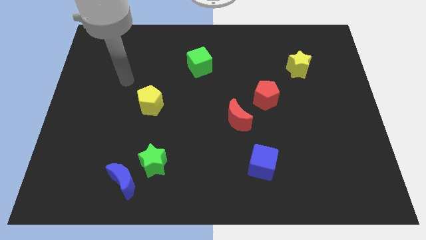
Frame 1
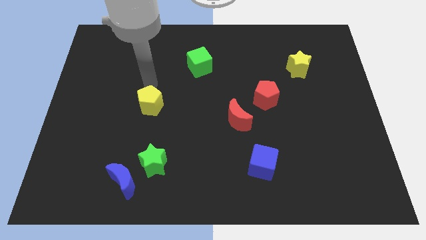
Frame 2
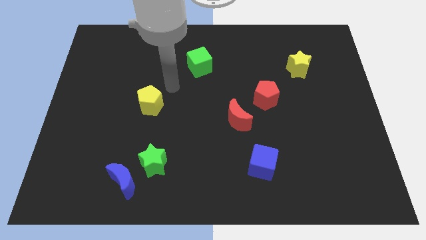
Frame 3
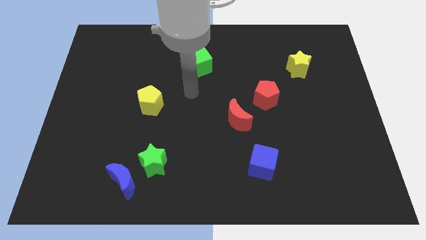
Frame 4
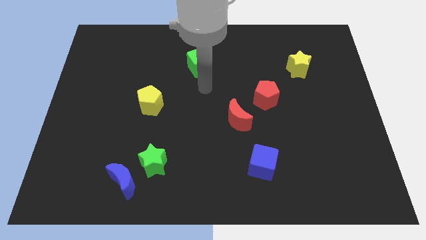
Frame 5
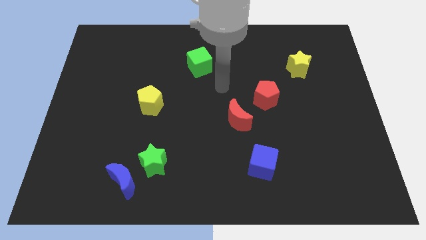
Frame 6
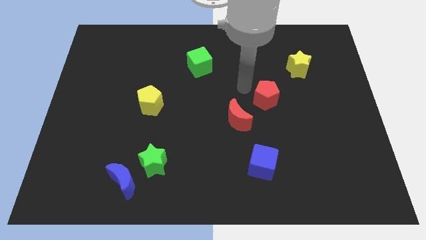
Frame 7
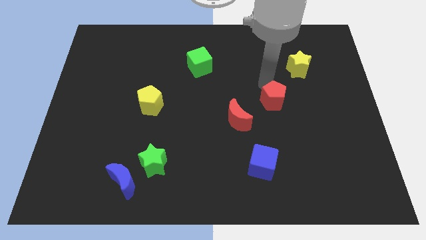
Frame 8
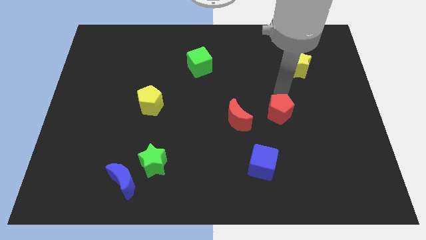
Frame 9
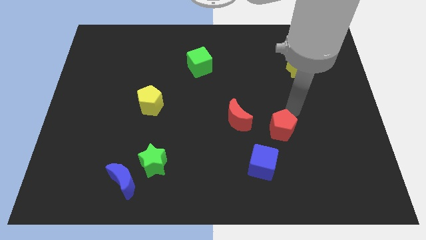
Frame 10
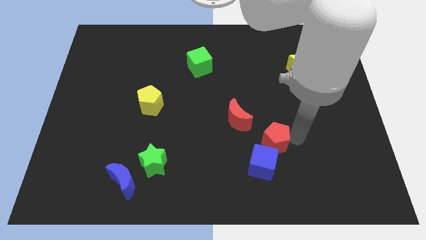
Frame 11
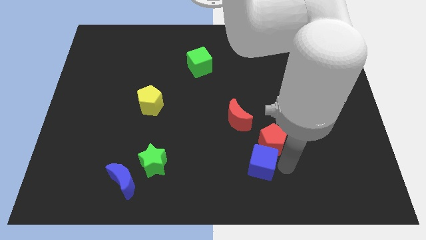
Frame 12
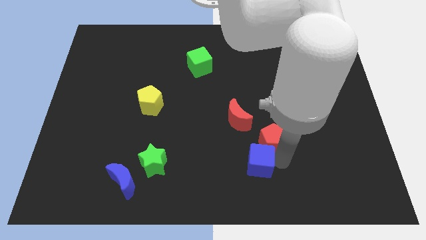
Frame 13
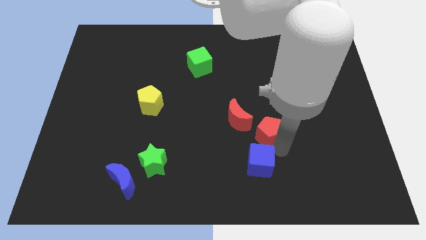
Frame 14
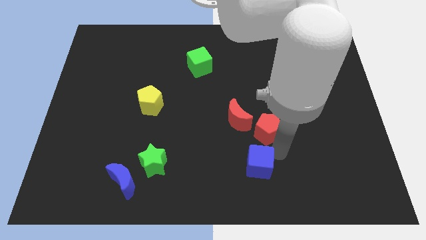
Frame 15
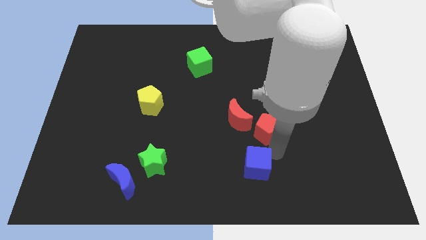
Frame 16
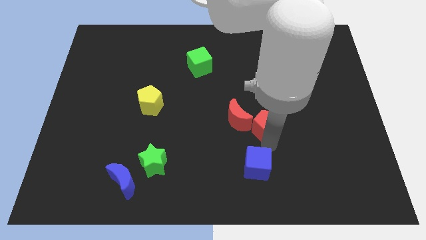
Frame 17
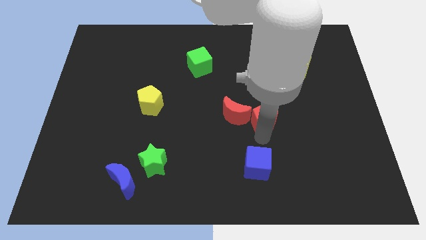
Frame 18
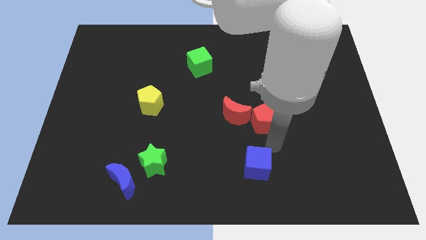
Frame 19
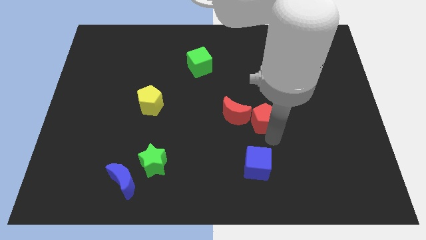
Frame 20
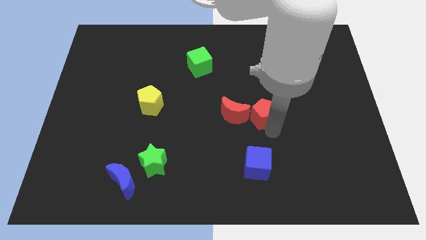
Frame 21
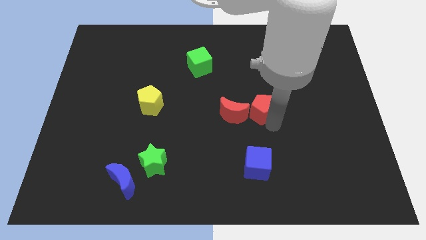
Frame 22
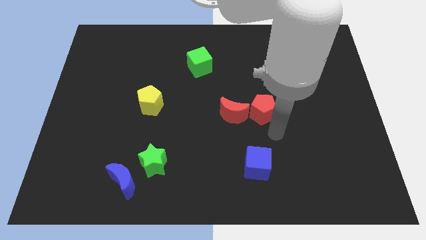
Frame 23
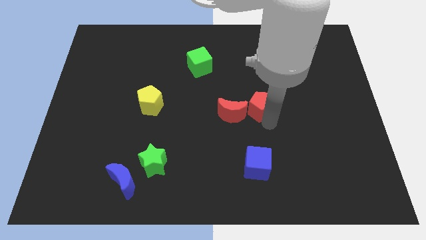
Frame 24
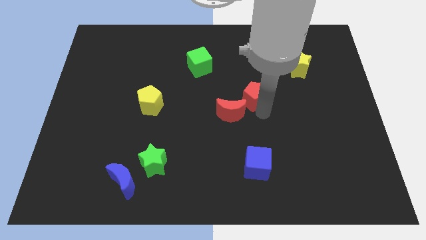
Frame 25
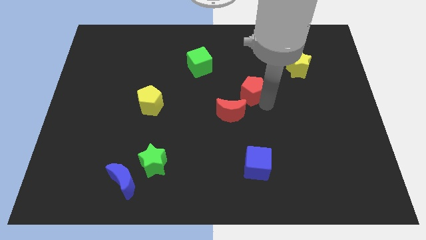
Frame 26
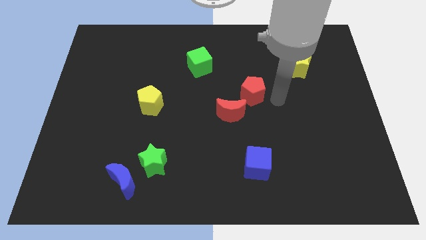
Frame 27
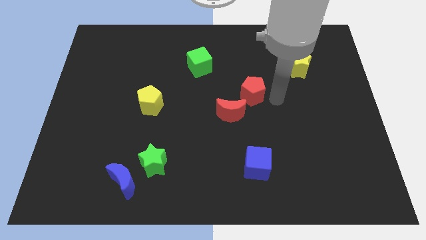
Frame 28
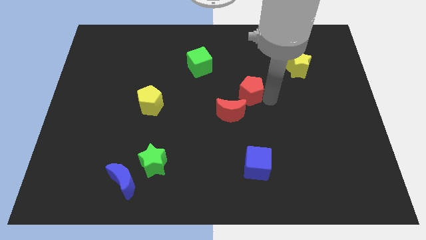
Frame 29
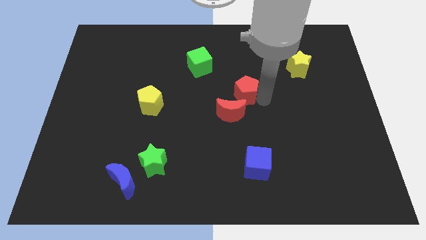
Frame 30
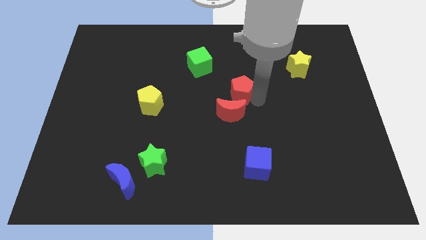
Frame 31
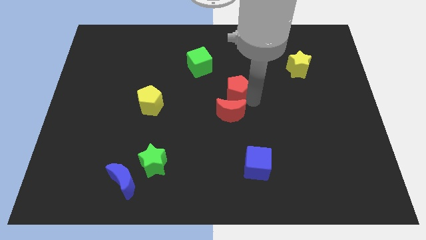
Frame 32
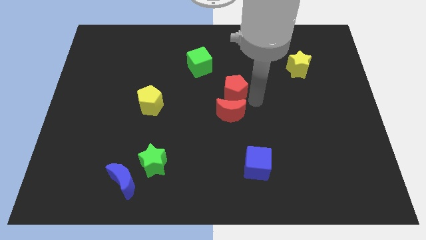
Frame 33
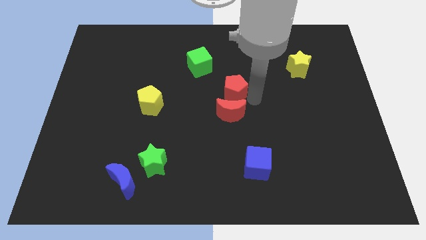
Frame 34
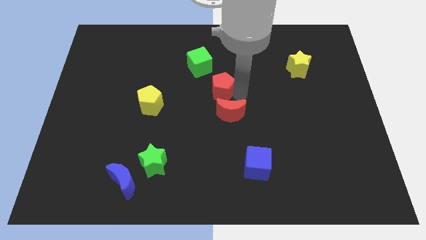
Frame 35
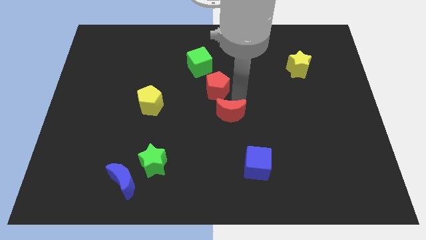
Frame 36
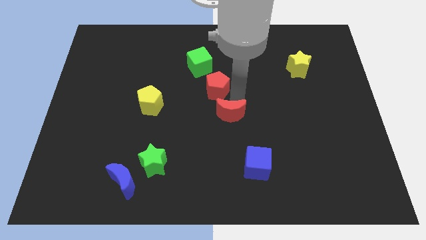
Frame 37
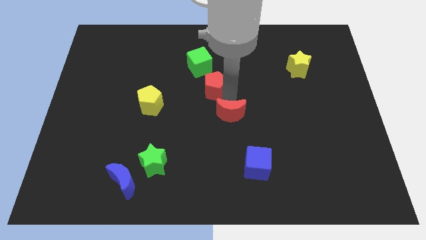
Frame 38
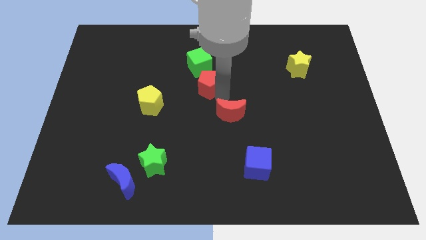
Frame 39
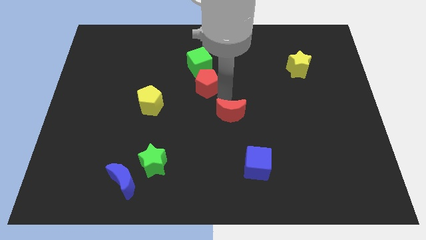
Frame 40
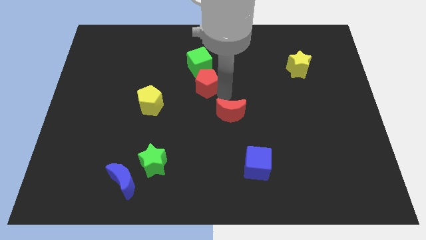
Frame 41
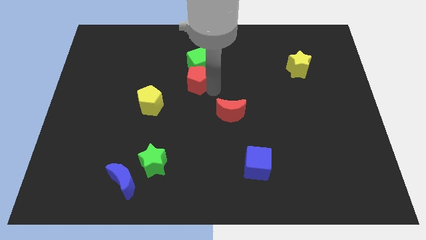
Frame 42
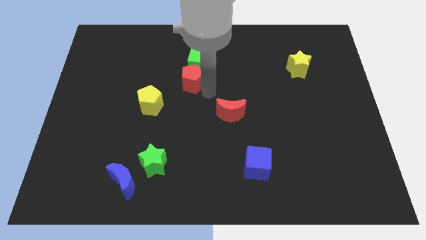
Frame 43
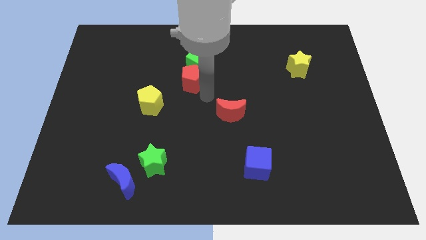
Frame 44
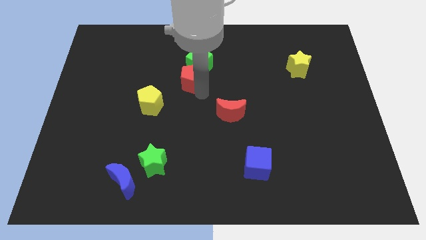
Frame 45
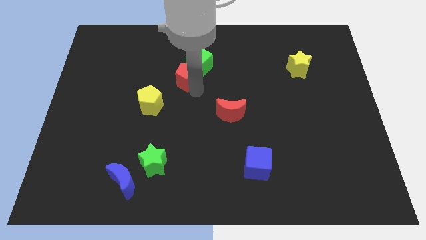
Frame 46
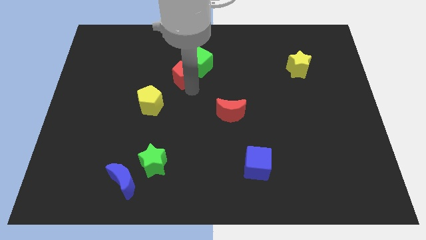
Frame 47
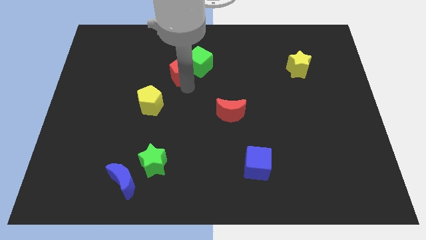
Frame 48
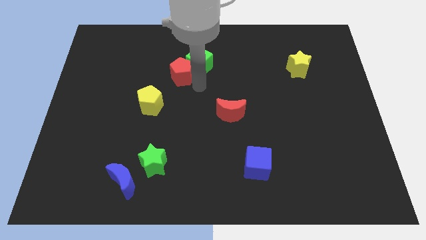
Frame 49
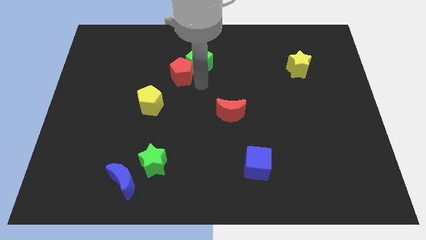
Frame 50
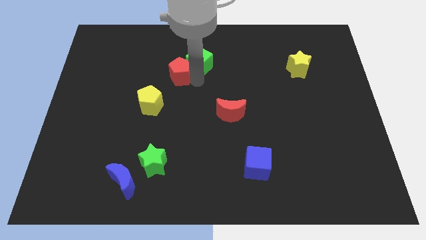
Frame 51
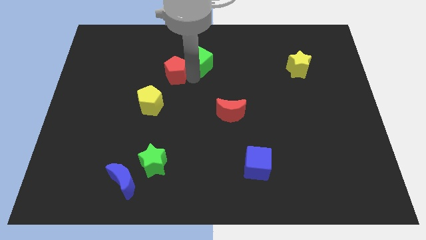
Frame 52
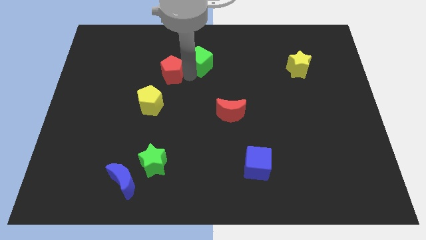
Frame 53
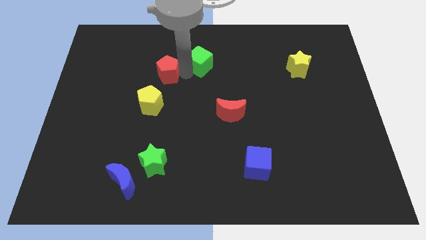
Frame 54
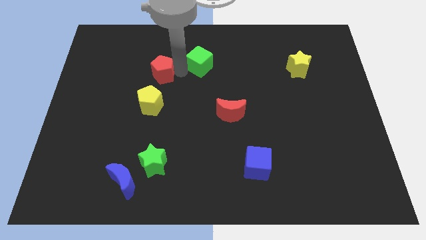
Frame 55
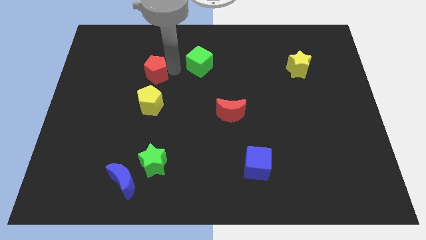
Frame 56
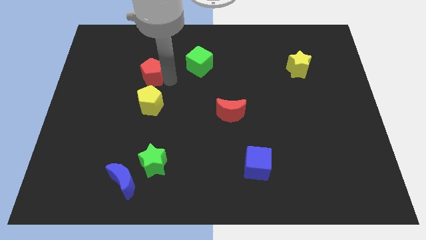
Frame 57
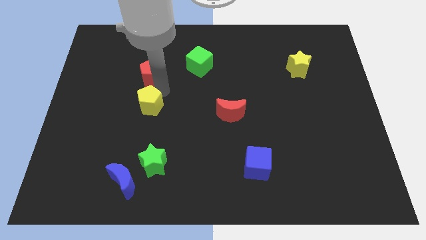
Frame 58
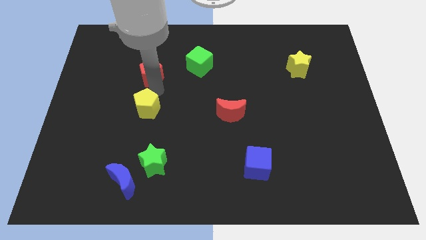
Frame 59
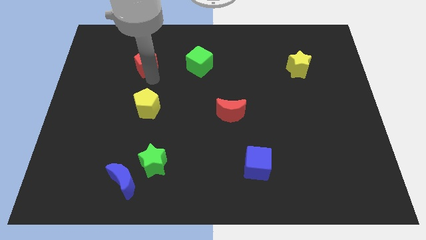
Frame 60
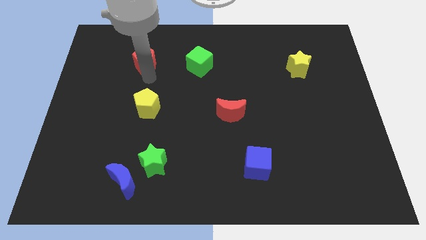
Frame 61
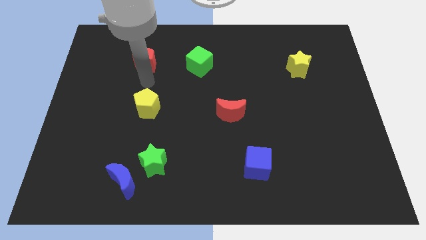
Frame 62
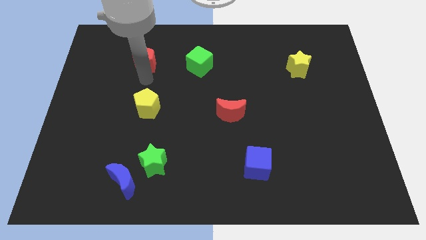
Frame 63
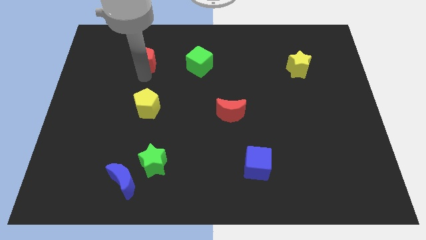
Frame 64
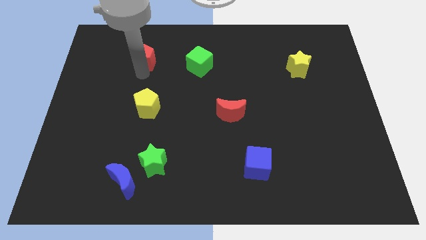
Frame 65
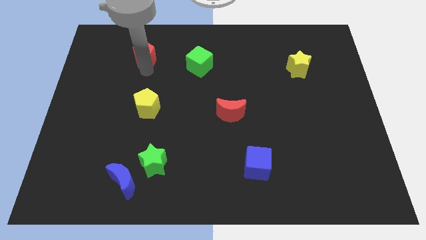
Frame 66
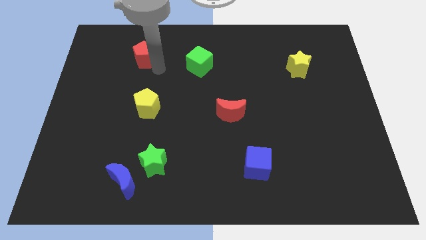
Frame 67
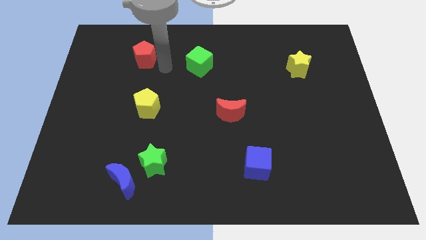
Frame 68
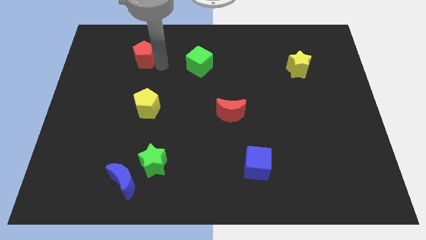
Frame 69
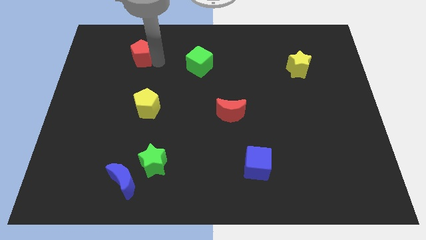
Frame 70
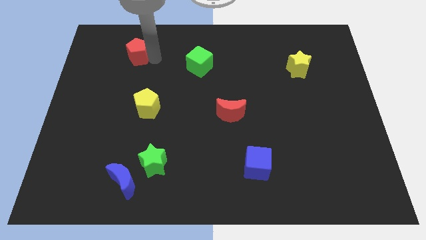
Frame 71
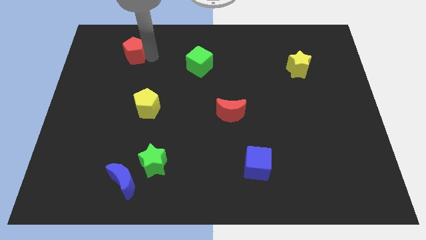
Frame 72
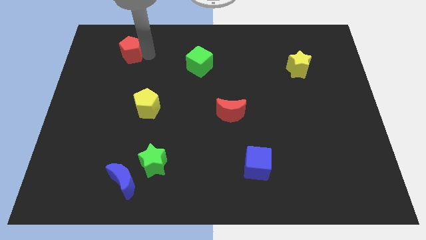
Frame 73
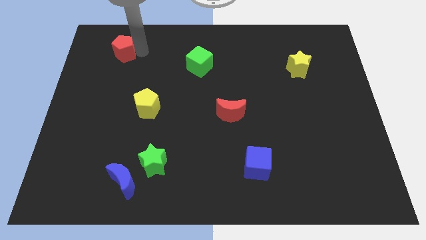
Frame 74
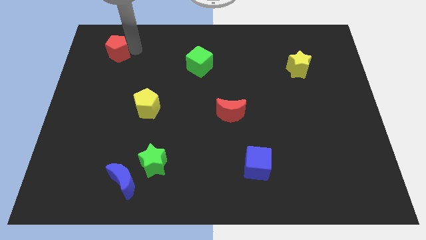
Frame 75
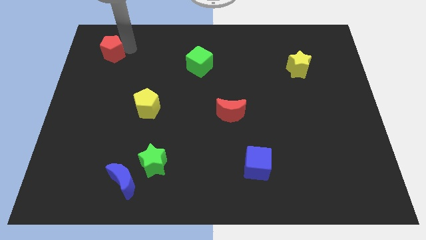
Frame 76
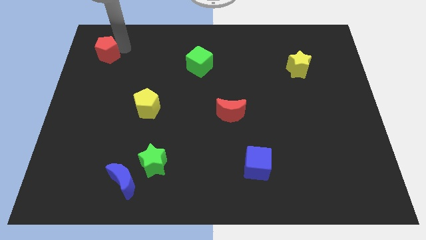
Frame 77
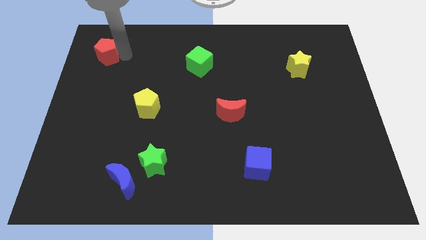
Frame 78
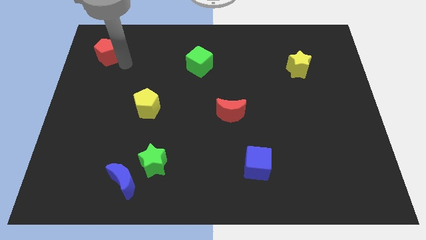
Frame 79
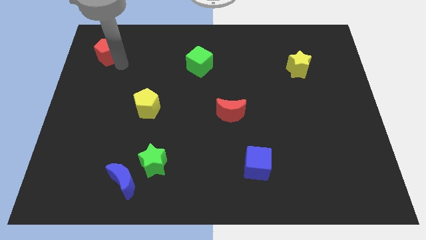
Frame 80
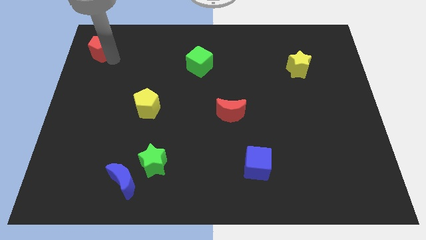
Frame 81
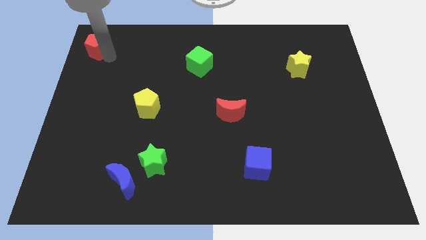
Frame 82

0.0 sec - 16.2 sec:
put the red pentagon to the top left corner
